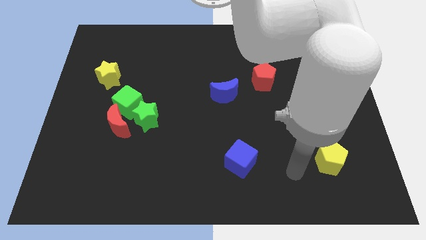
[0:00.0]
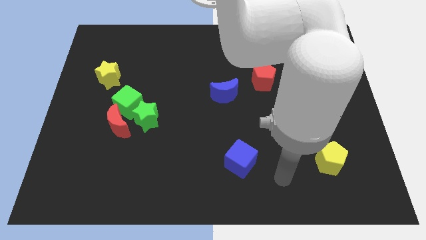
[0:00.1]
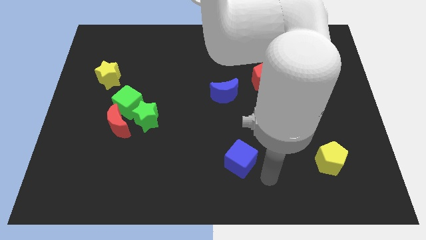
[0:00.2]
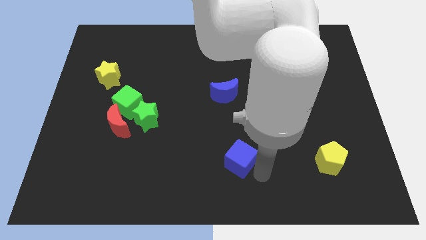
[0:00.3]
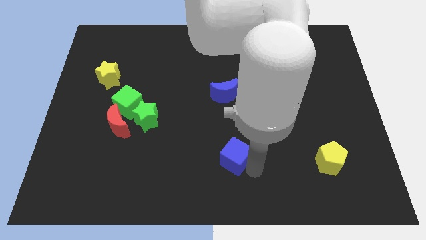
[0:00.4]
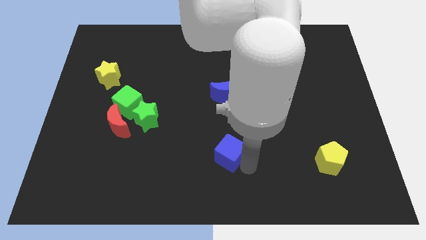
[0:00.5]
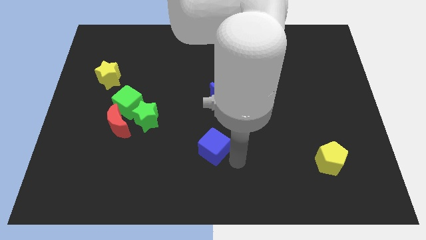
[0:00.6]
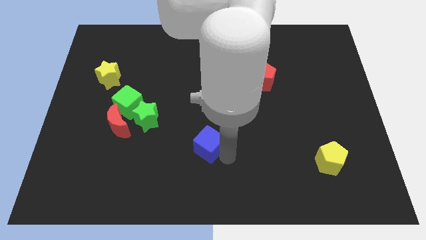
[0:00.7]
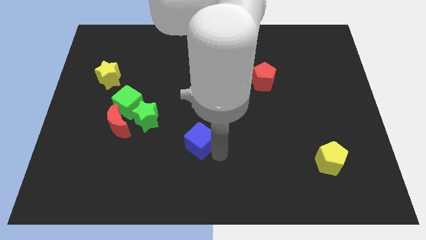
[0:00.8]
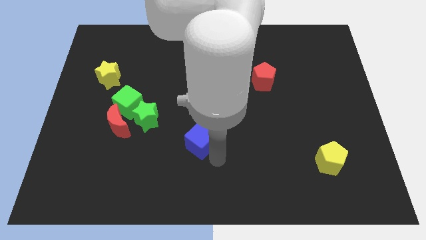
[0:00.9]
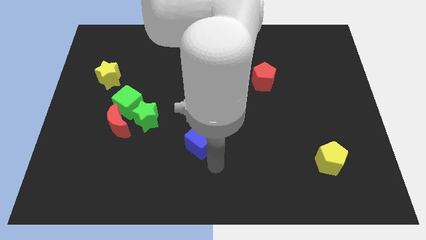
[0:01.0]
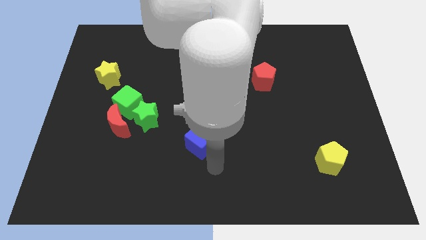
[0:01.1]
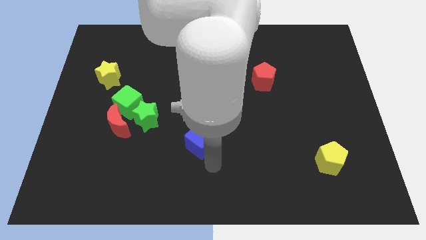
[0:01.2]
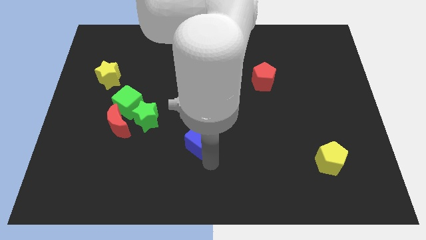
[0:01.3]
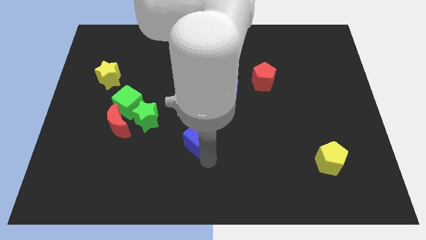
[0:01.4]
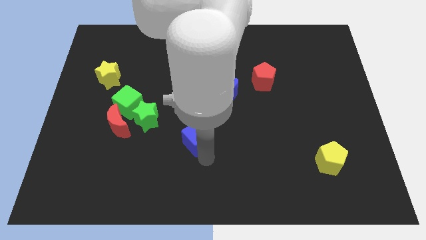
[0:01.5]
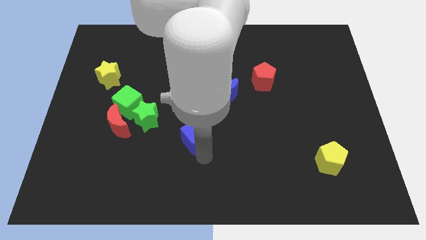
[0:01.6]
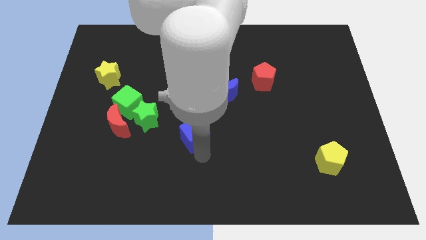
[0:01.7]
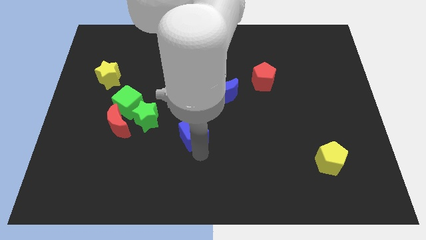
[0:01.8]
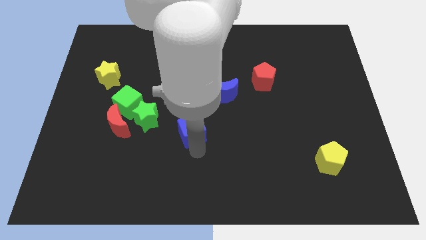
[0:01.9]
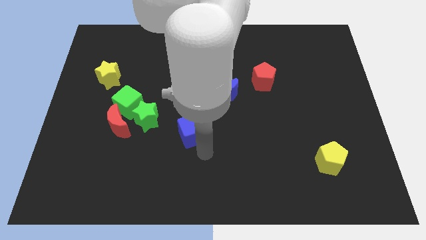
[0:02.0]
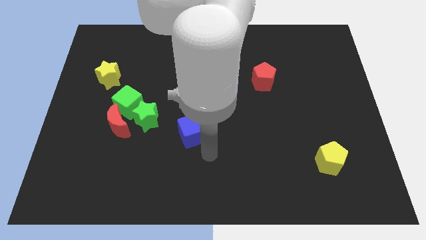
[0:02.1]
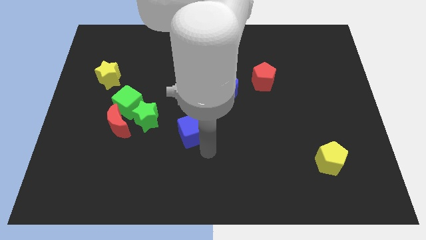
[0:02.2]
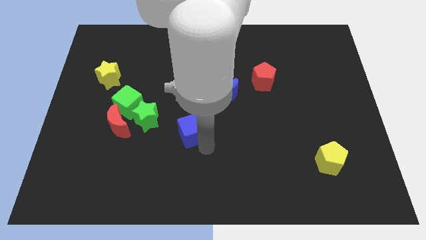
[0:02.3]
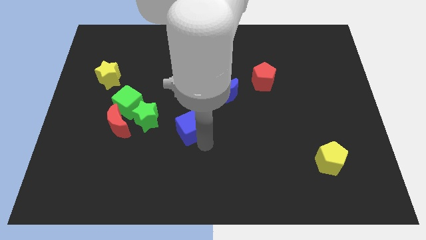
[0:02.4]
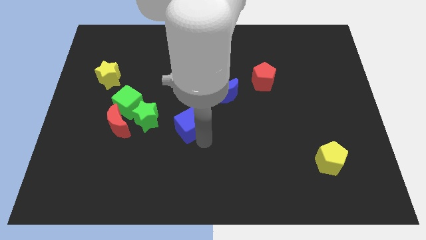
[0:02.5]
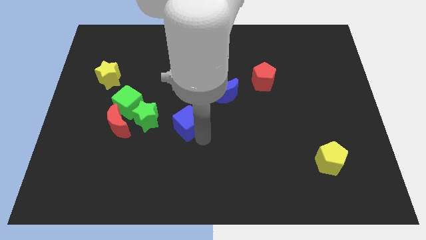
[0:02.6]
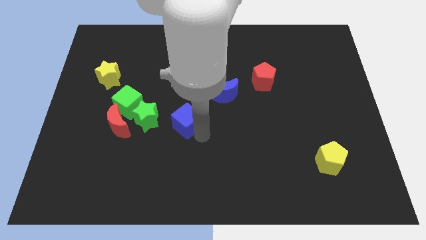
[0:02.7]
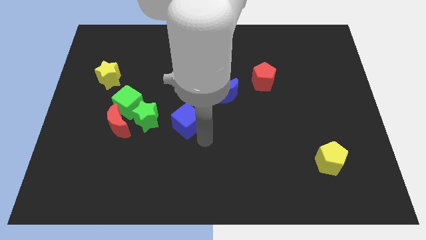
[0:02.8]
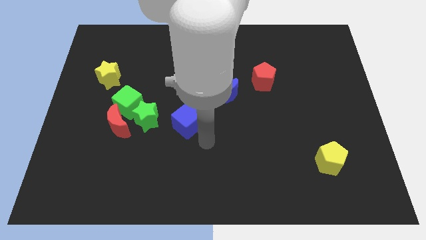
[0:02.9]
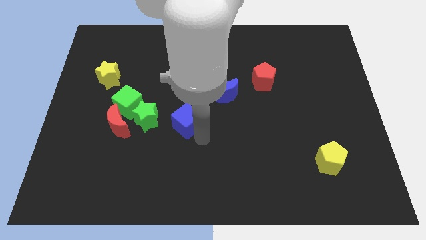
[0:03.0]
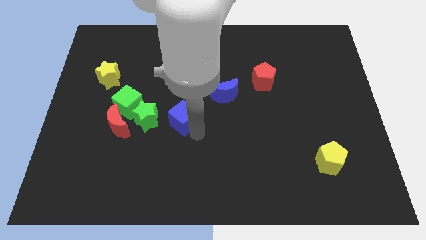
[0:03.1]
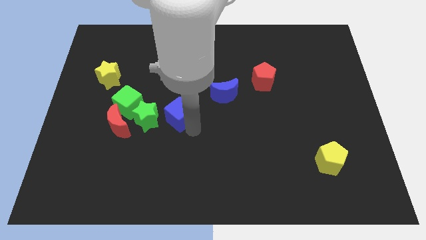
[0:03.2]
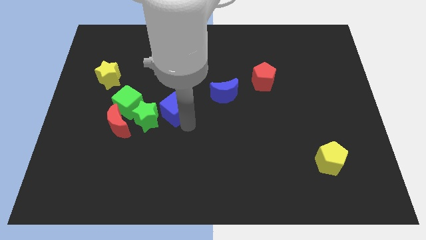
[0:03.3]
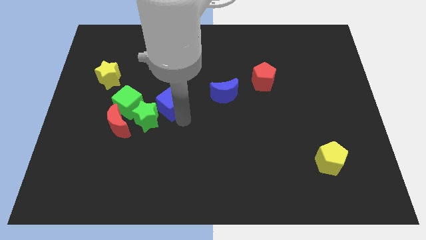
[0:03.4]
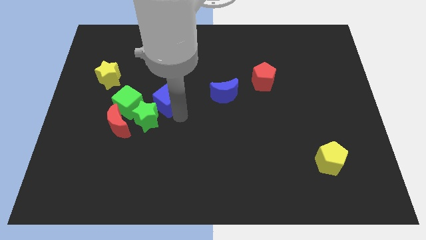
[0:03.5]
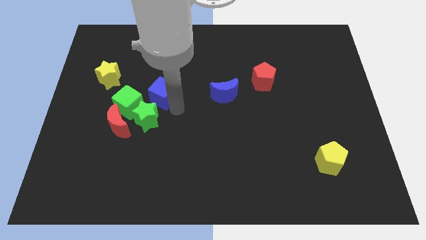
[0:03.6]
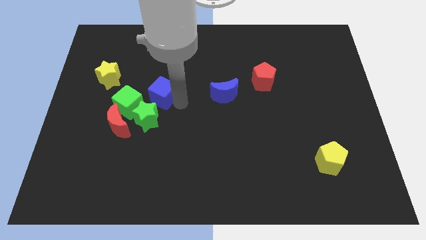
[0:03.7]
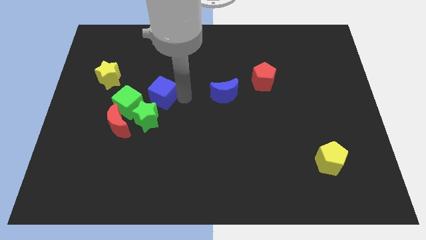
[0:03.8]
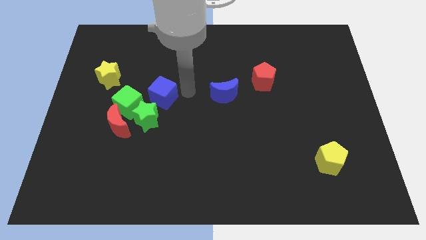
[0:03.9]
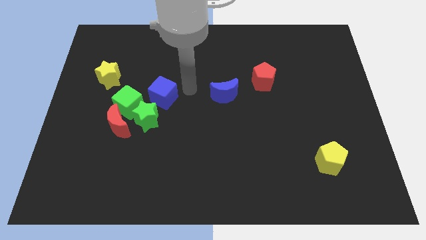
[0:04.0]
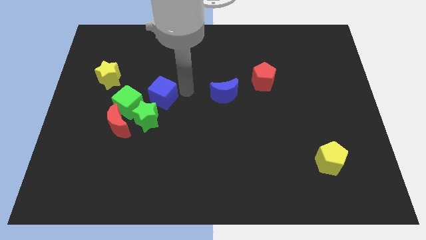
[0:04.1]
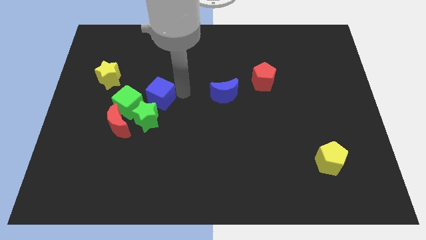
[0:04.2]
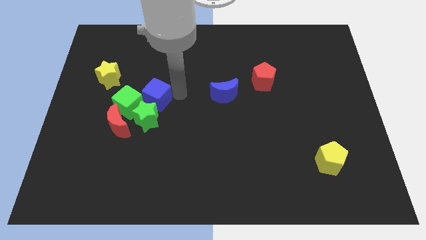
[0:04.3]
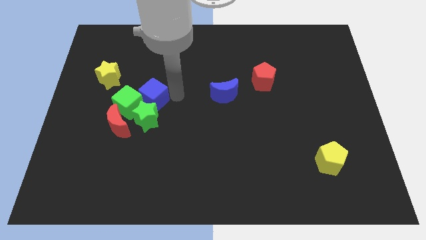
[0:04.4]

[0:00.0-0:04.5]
push the blue cube close to the green cube

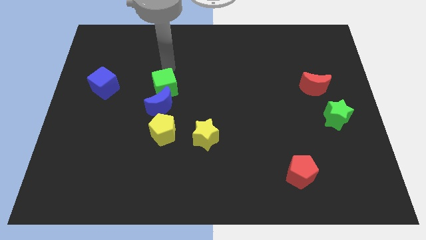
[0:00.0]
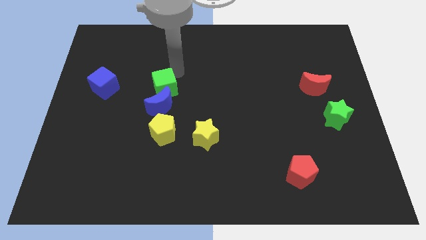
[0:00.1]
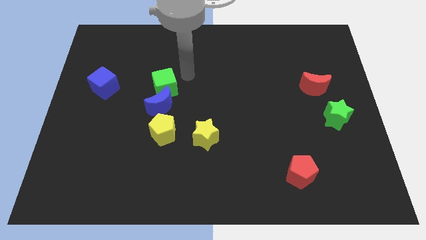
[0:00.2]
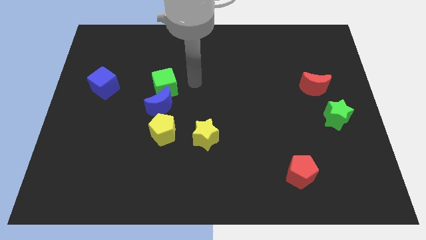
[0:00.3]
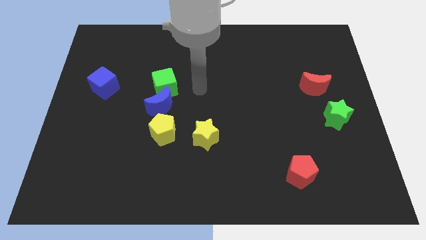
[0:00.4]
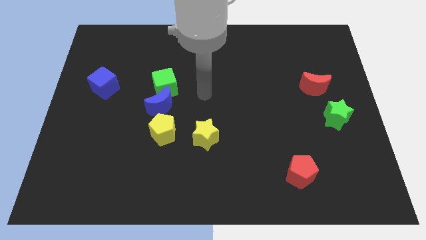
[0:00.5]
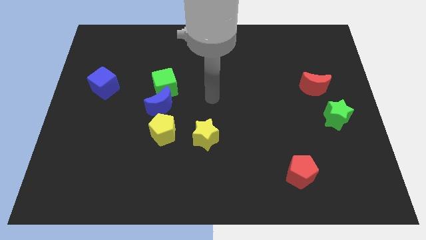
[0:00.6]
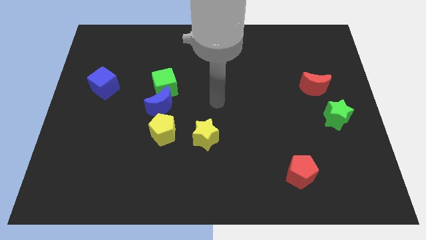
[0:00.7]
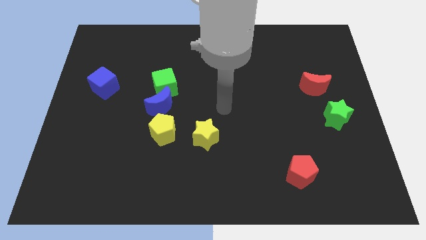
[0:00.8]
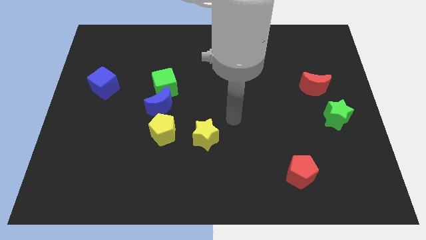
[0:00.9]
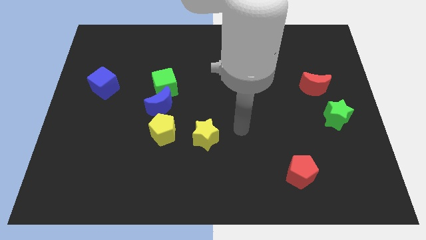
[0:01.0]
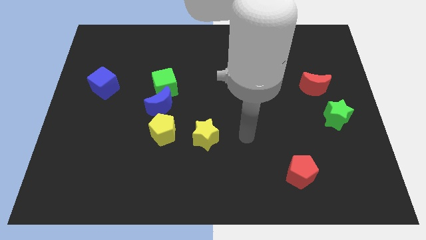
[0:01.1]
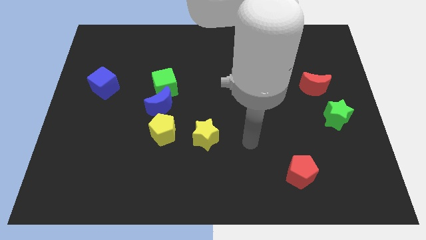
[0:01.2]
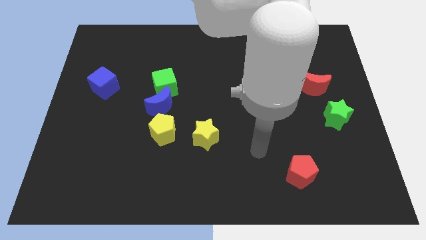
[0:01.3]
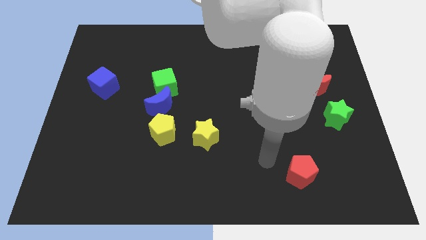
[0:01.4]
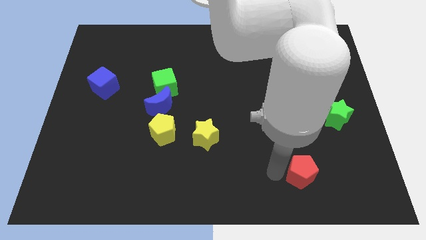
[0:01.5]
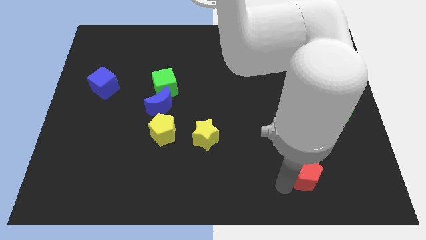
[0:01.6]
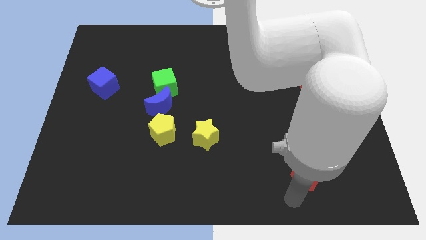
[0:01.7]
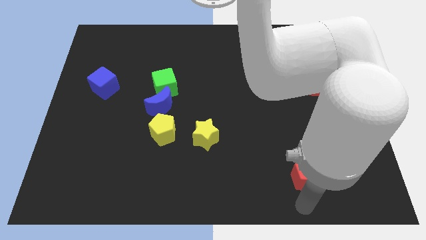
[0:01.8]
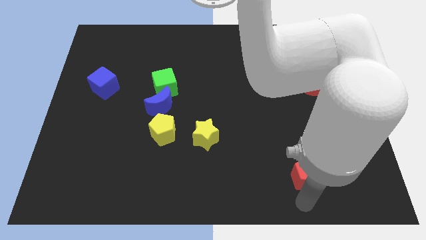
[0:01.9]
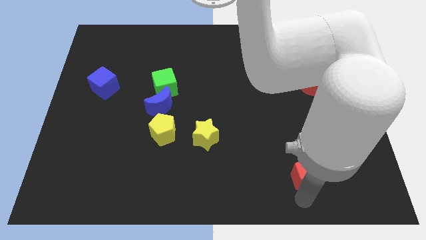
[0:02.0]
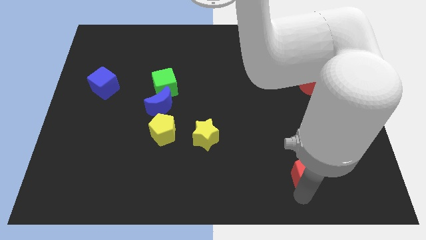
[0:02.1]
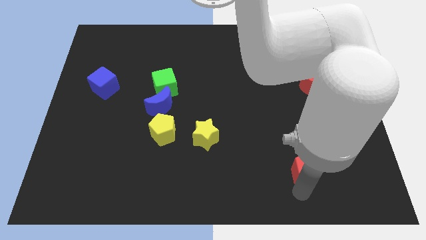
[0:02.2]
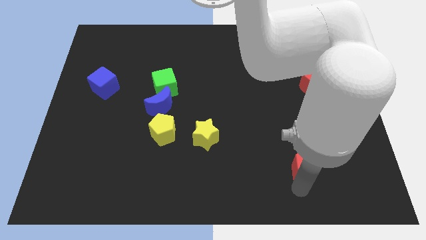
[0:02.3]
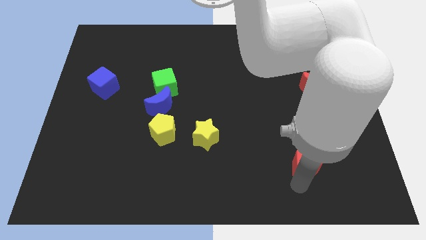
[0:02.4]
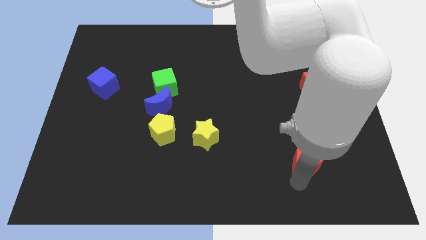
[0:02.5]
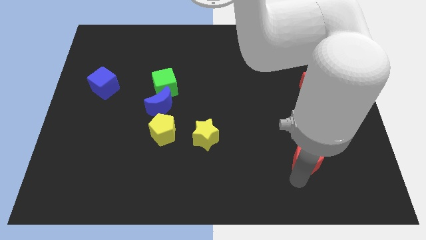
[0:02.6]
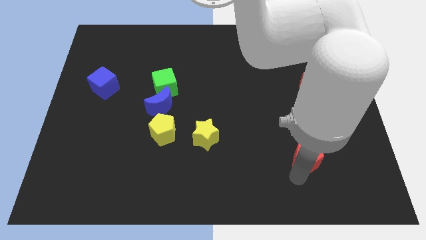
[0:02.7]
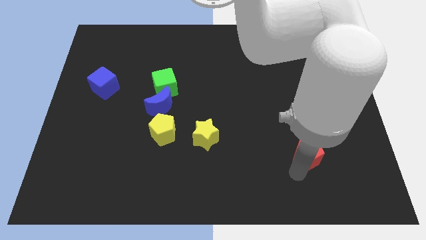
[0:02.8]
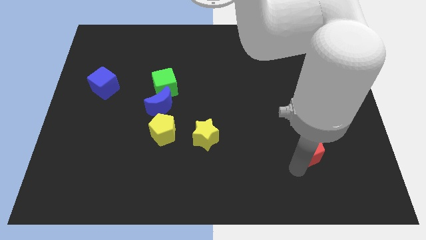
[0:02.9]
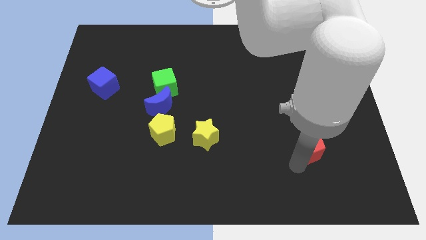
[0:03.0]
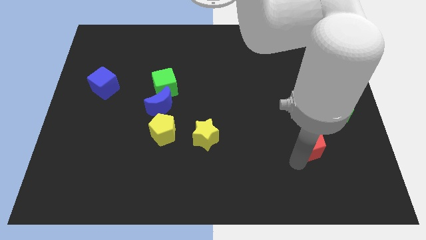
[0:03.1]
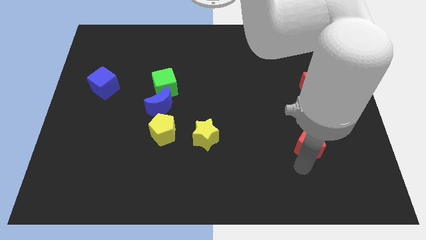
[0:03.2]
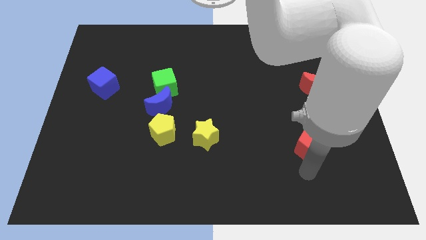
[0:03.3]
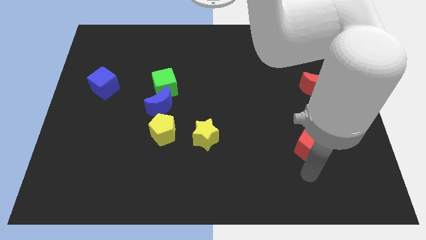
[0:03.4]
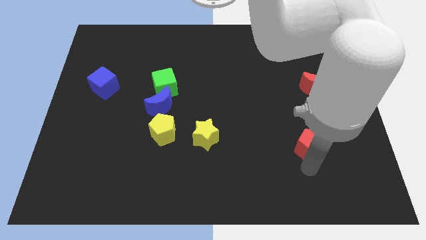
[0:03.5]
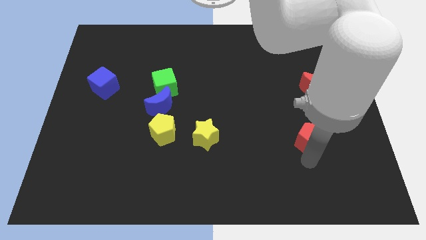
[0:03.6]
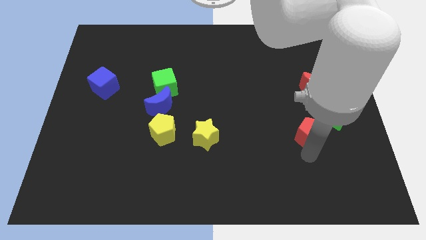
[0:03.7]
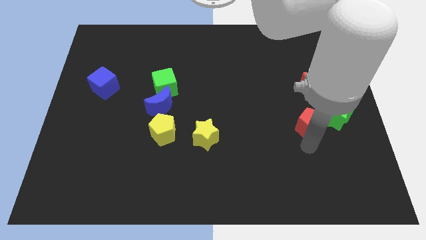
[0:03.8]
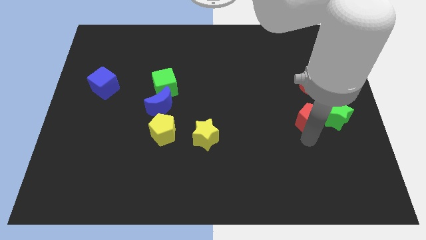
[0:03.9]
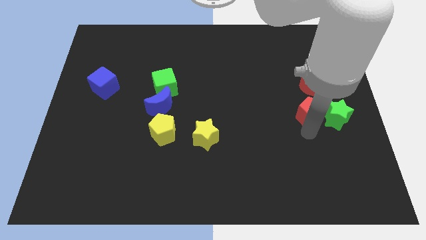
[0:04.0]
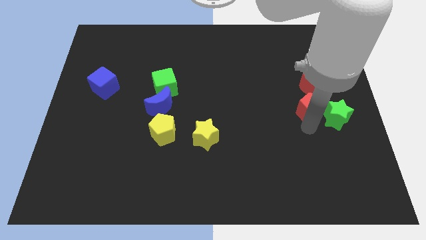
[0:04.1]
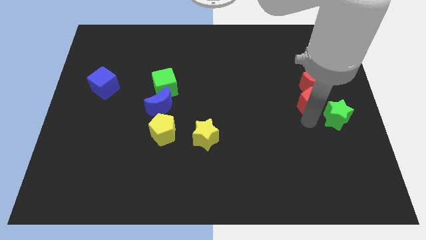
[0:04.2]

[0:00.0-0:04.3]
move the red pentagon towards the red moon
